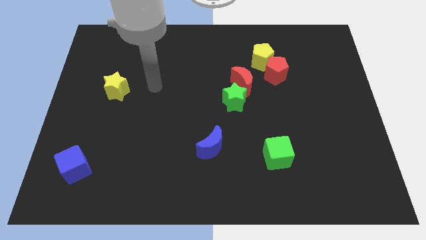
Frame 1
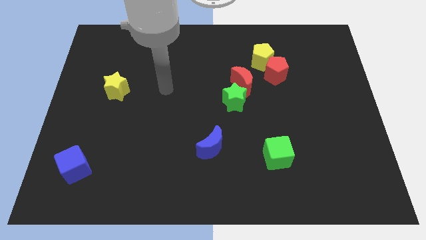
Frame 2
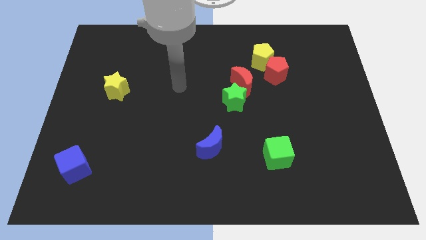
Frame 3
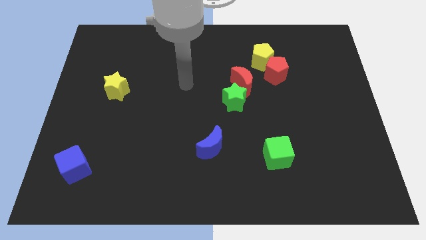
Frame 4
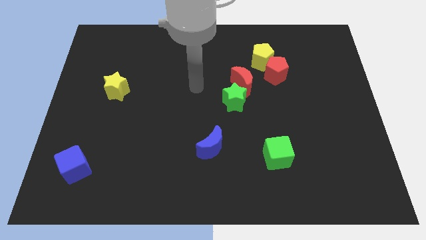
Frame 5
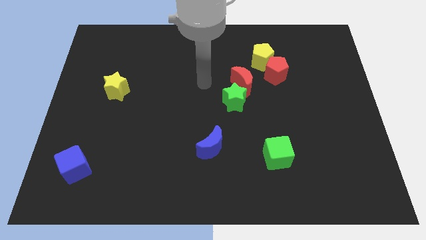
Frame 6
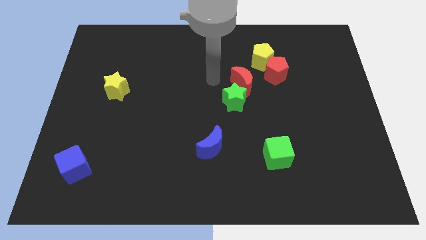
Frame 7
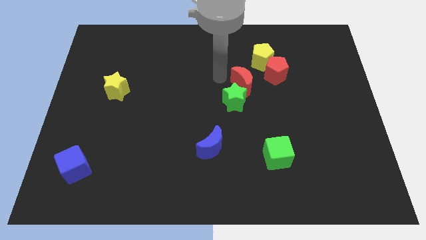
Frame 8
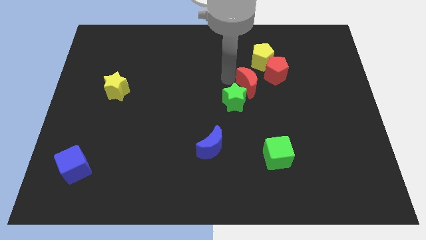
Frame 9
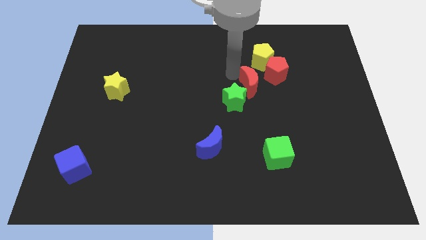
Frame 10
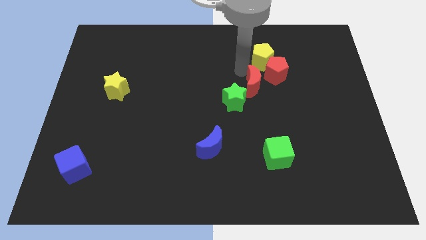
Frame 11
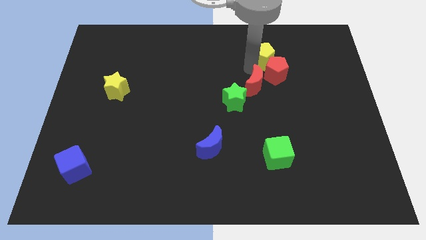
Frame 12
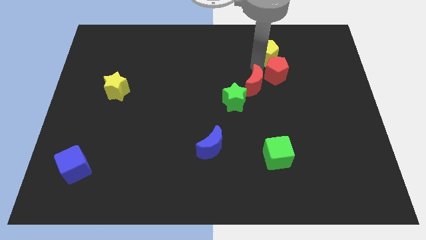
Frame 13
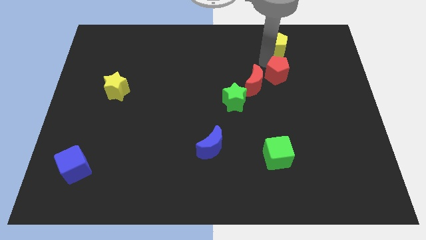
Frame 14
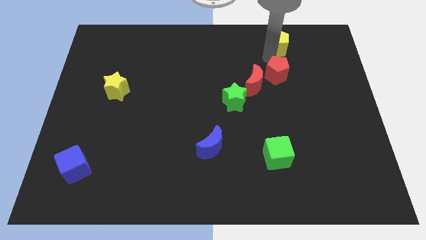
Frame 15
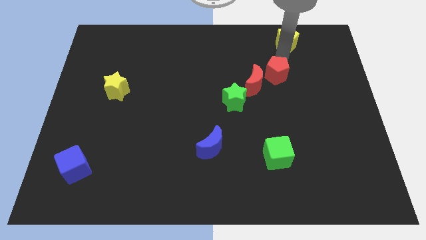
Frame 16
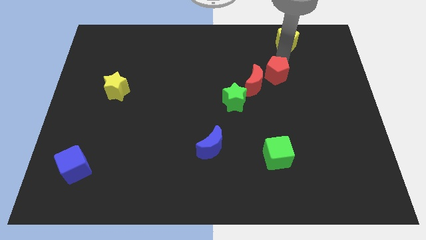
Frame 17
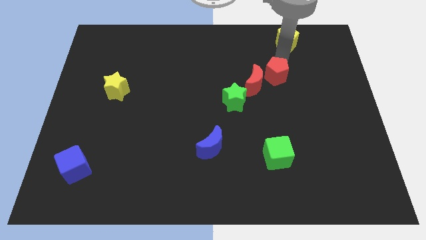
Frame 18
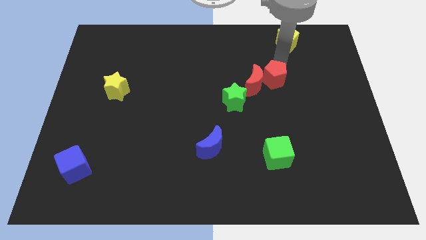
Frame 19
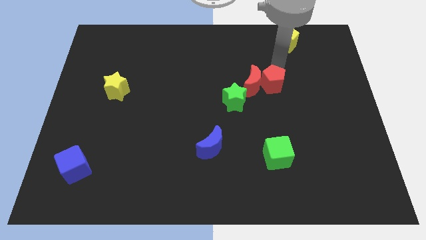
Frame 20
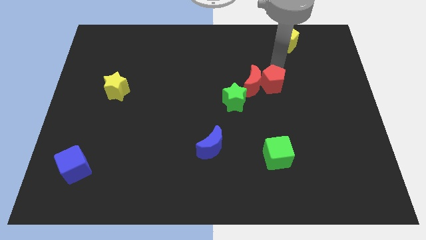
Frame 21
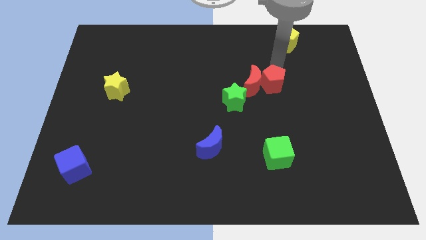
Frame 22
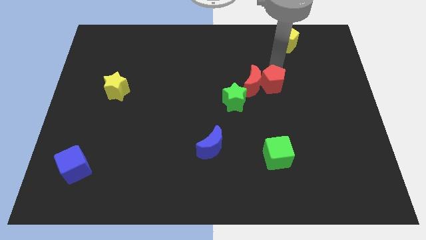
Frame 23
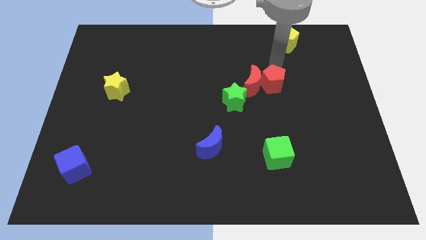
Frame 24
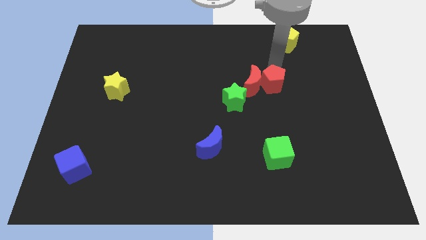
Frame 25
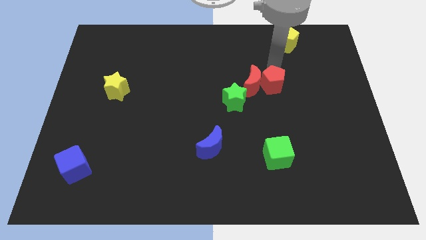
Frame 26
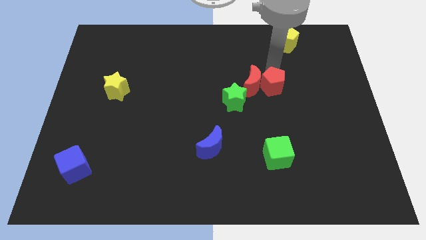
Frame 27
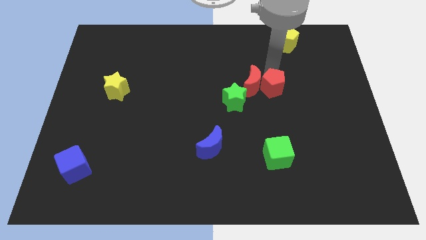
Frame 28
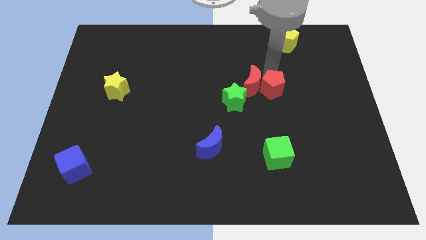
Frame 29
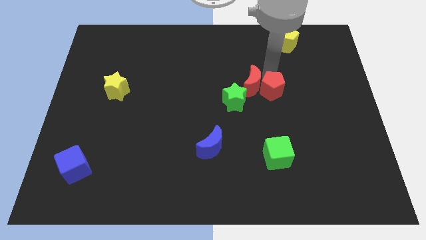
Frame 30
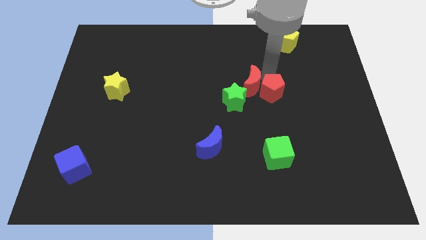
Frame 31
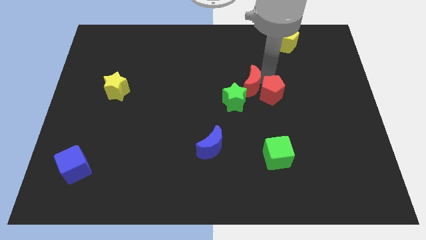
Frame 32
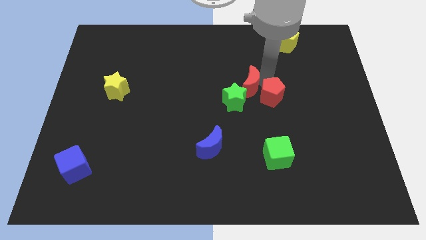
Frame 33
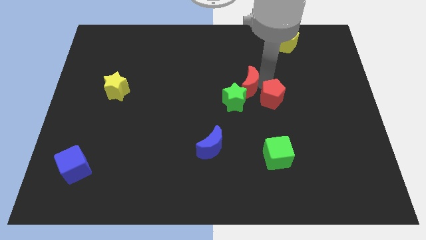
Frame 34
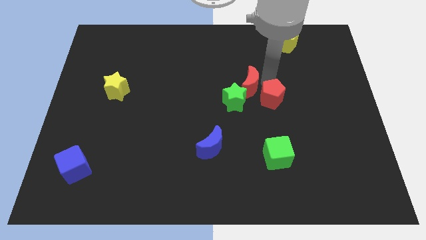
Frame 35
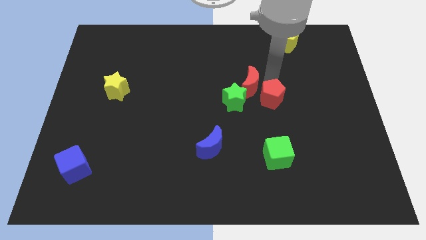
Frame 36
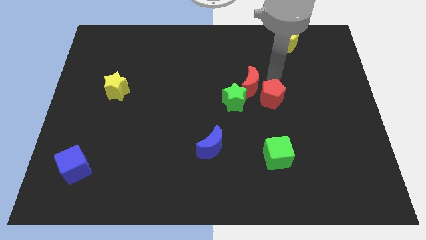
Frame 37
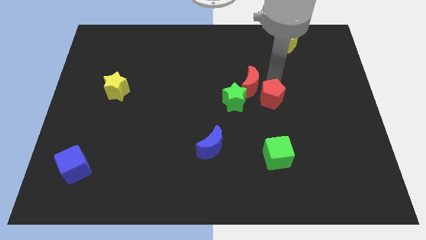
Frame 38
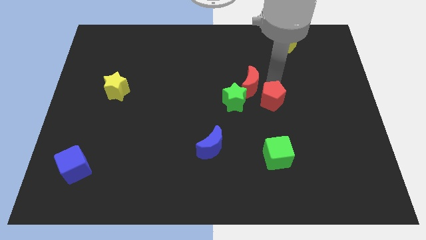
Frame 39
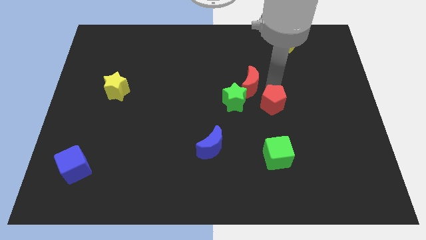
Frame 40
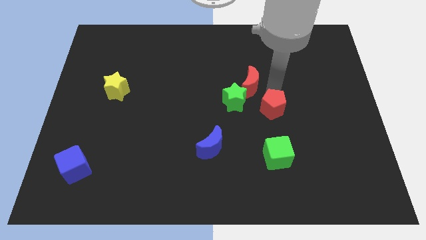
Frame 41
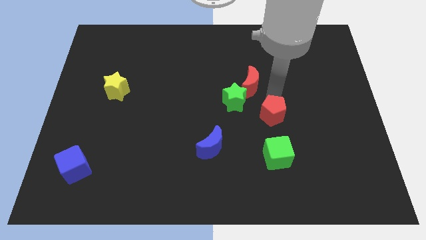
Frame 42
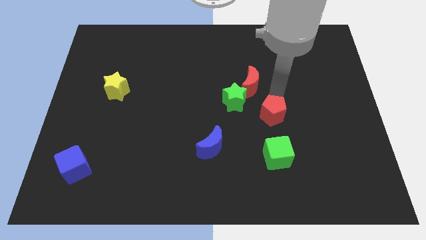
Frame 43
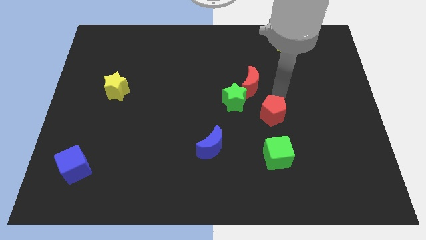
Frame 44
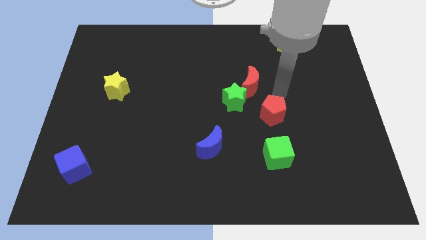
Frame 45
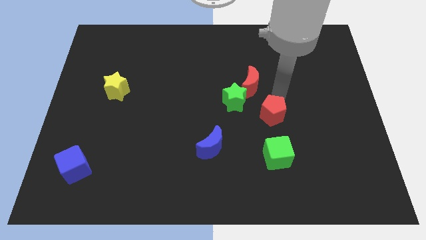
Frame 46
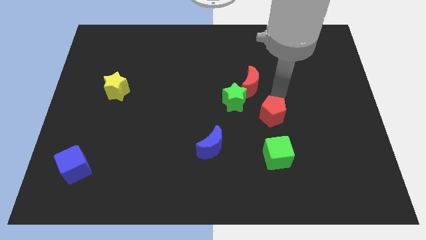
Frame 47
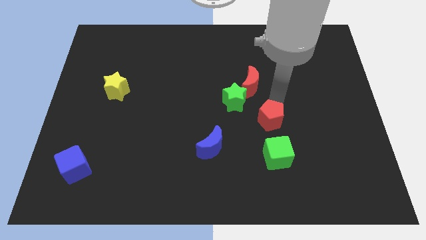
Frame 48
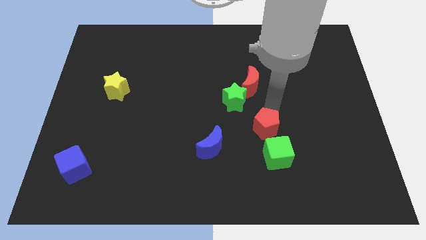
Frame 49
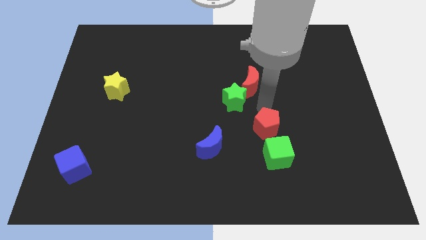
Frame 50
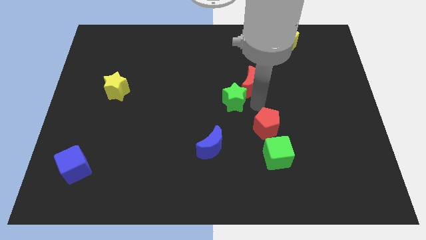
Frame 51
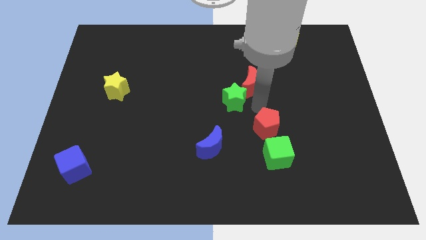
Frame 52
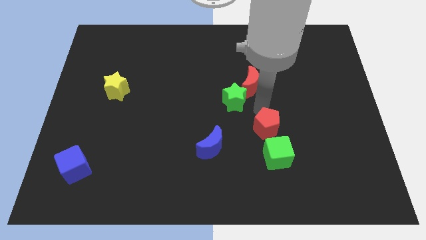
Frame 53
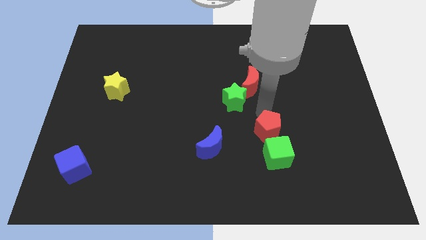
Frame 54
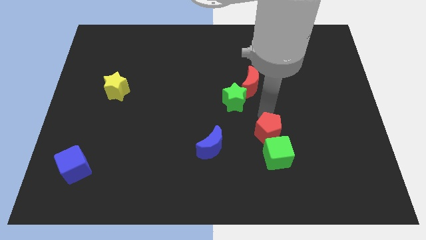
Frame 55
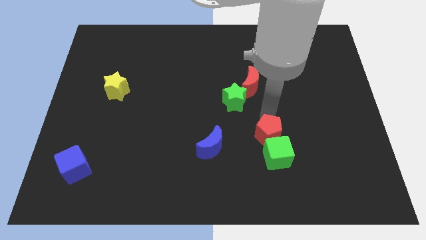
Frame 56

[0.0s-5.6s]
slide the red pentagon close to the green cube

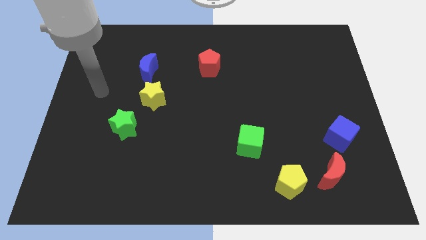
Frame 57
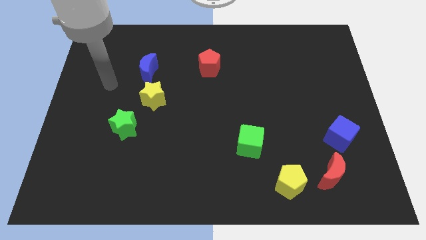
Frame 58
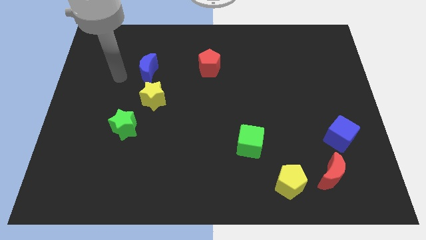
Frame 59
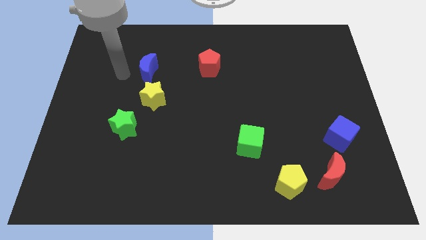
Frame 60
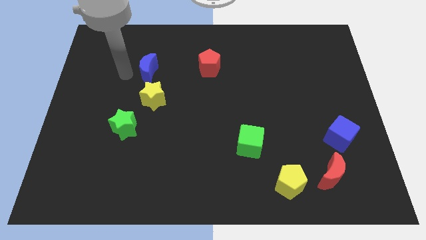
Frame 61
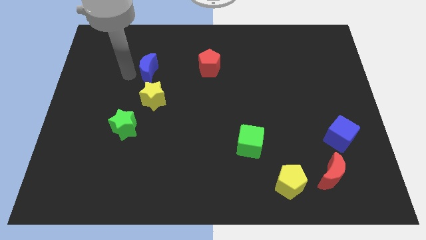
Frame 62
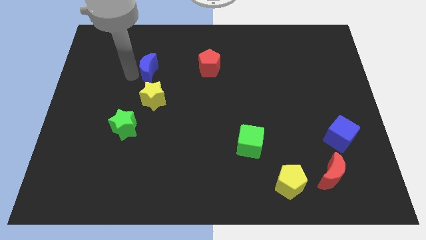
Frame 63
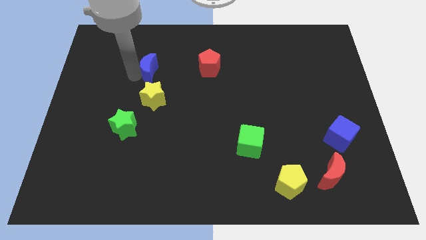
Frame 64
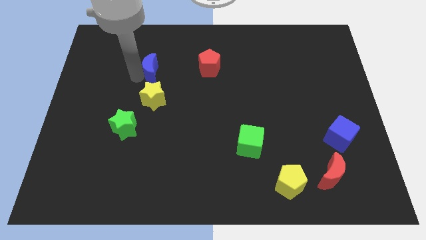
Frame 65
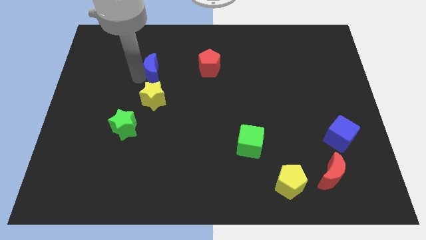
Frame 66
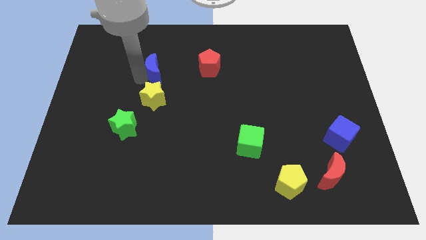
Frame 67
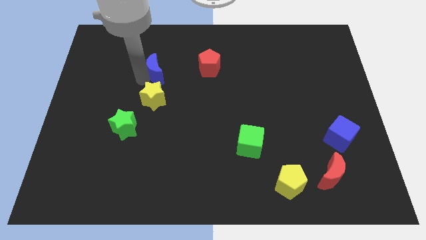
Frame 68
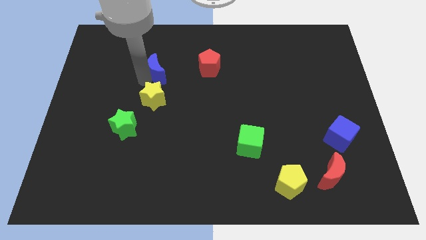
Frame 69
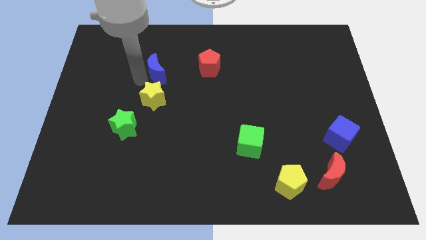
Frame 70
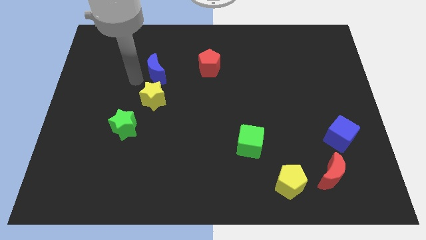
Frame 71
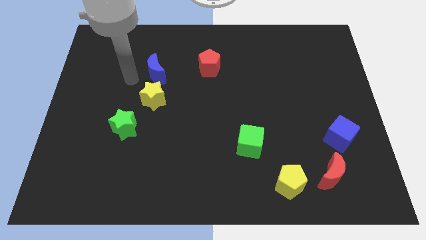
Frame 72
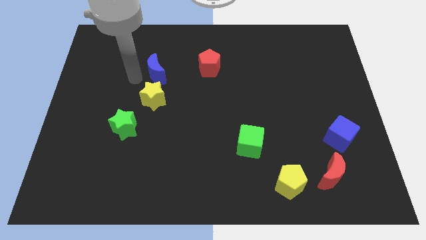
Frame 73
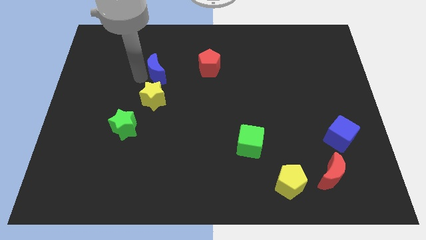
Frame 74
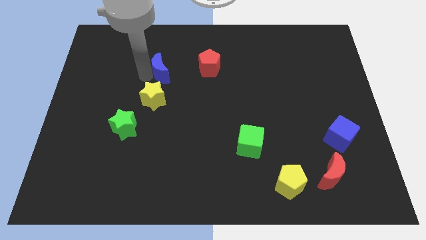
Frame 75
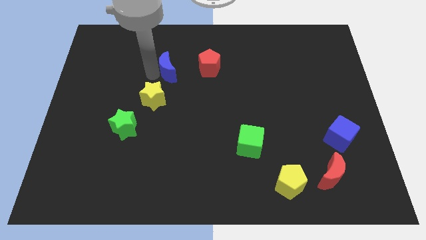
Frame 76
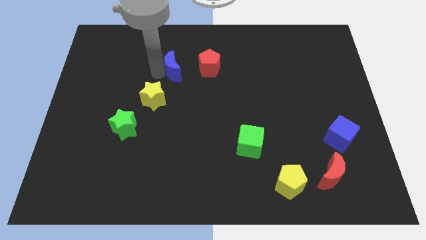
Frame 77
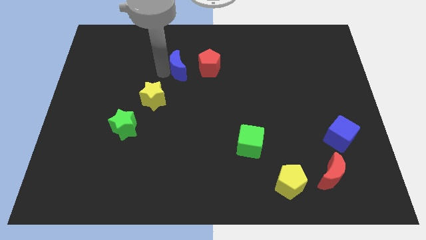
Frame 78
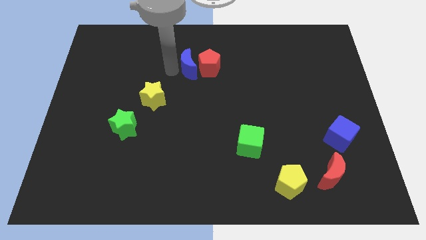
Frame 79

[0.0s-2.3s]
push the blue moon close to the red pentagon
